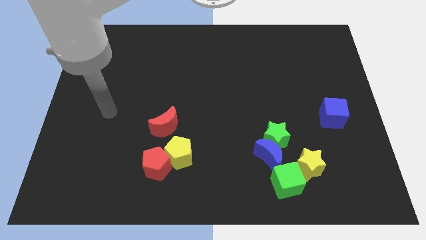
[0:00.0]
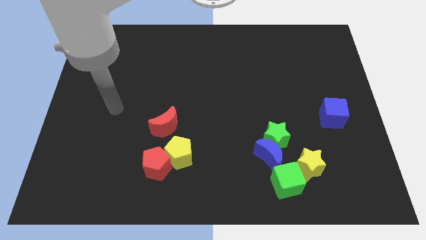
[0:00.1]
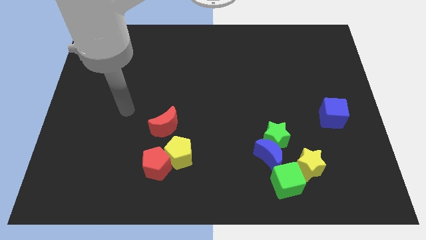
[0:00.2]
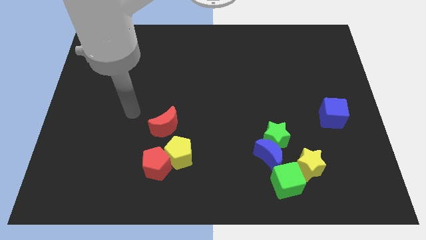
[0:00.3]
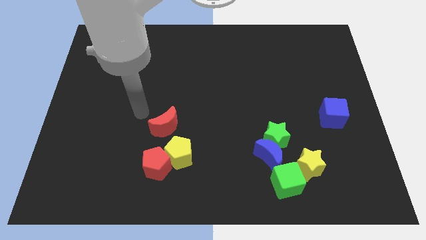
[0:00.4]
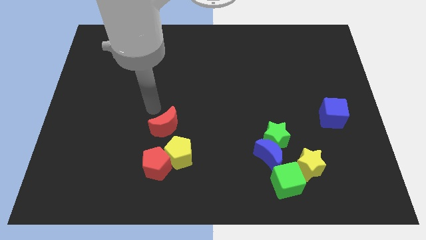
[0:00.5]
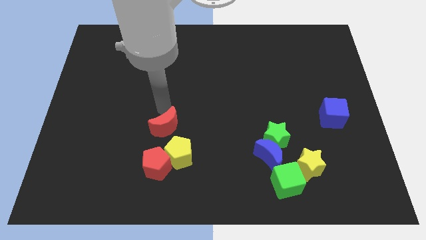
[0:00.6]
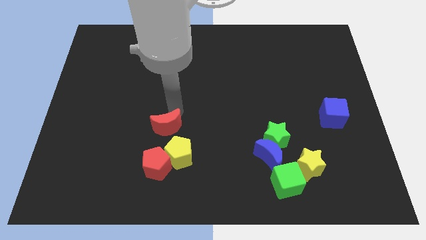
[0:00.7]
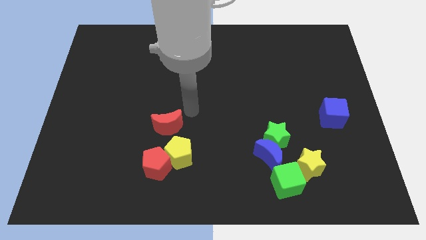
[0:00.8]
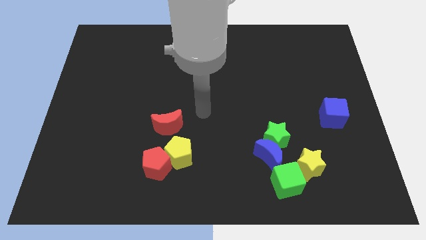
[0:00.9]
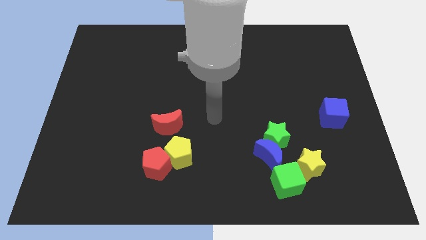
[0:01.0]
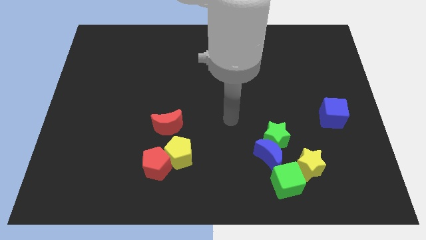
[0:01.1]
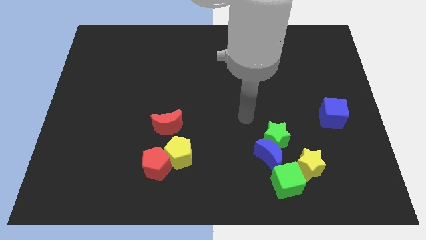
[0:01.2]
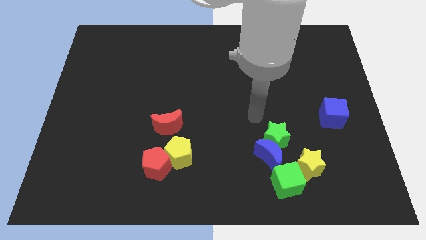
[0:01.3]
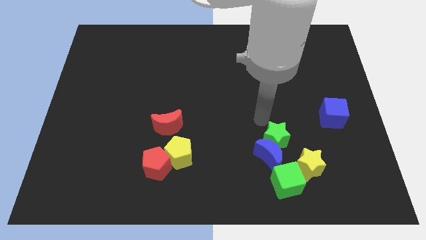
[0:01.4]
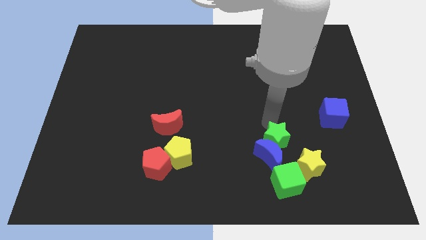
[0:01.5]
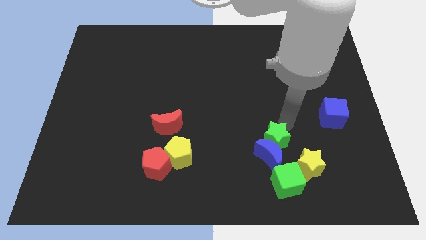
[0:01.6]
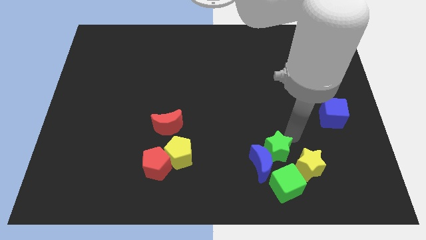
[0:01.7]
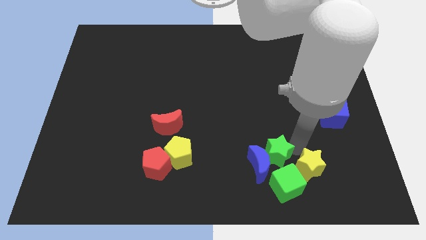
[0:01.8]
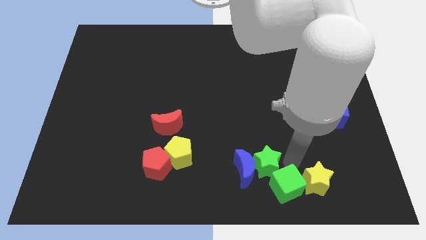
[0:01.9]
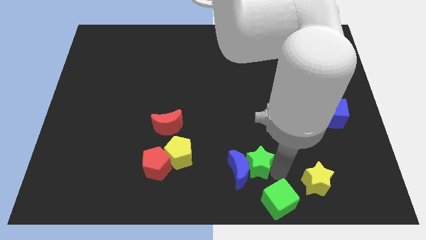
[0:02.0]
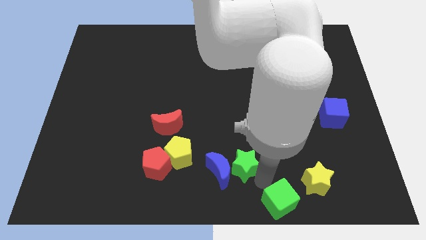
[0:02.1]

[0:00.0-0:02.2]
pull the blue moon apart from the clump

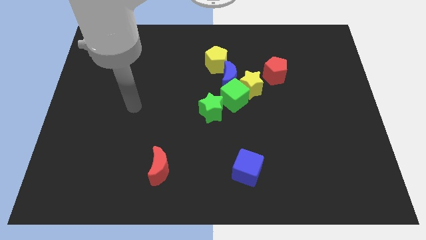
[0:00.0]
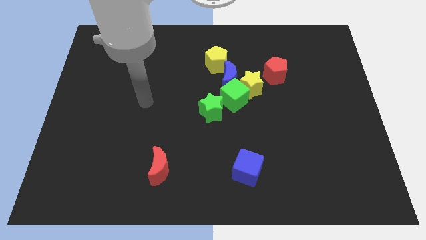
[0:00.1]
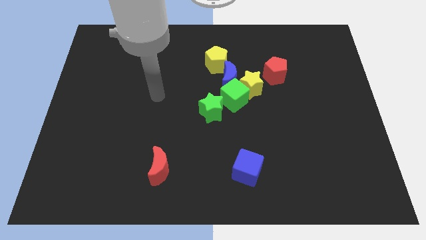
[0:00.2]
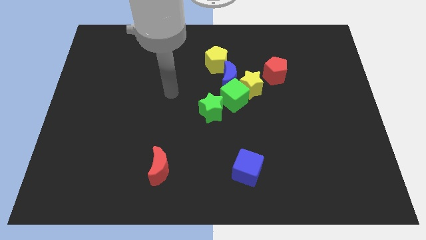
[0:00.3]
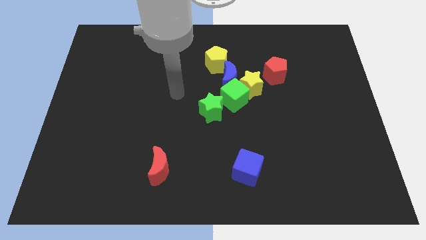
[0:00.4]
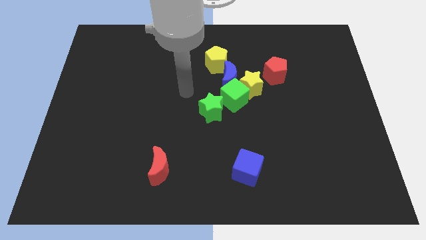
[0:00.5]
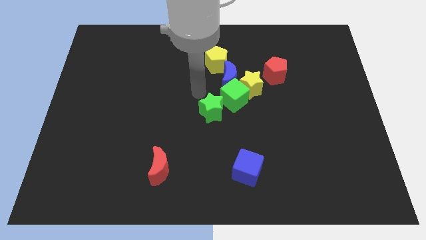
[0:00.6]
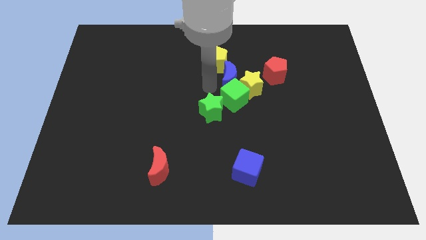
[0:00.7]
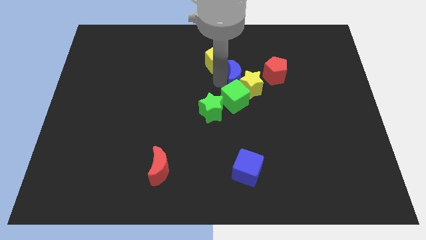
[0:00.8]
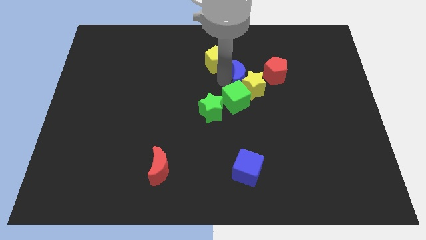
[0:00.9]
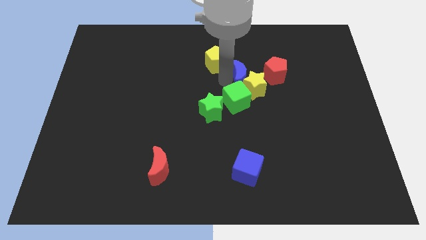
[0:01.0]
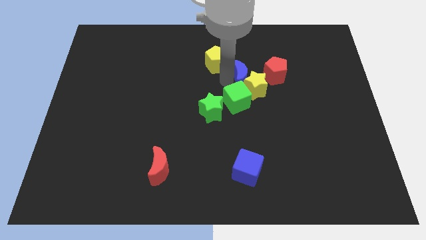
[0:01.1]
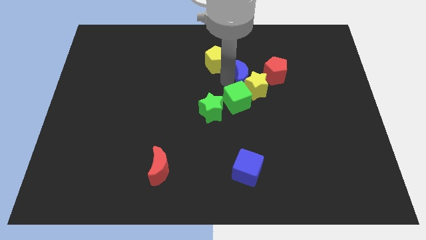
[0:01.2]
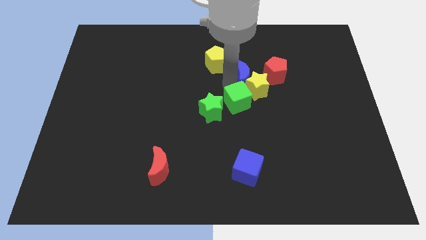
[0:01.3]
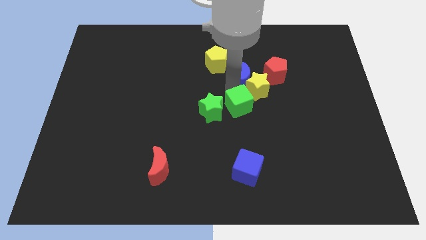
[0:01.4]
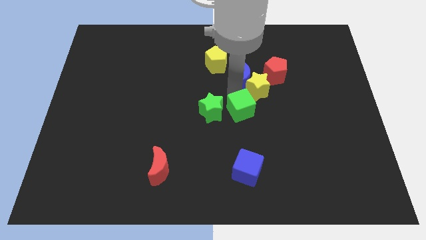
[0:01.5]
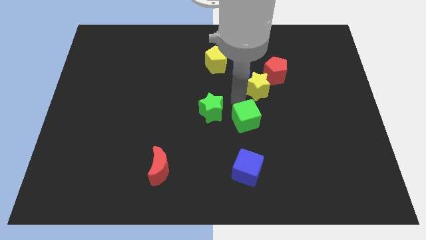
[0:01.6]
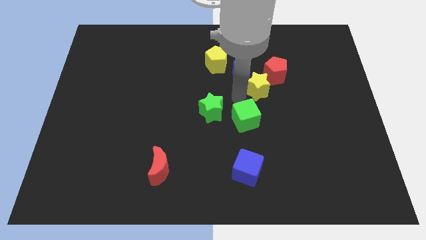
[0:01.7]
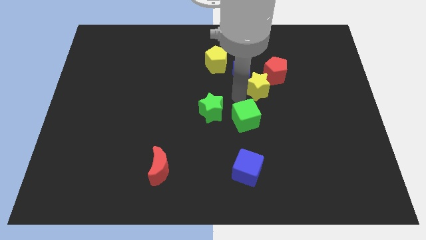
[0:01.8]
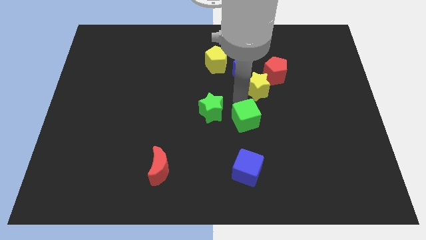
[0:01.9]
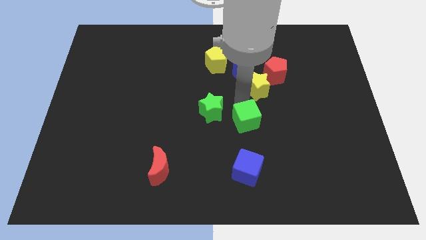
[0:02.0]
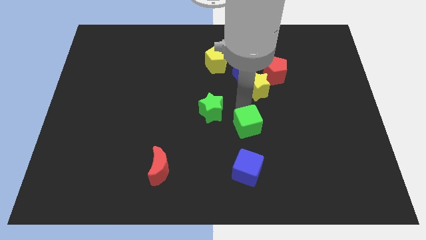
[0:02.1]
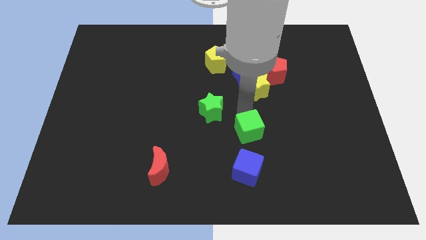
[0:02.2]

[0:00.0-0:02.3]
pull the green cube apart from the yellow star, blue moon, and green star

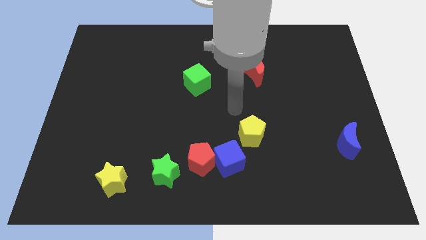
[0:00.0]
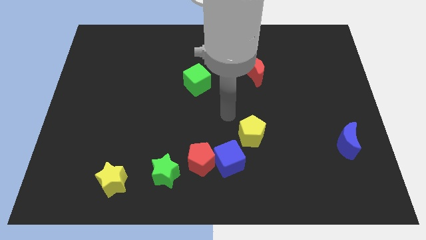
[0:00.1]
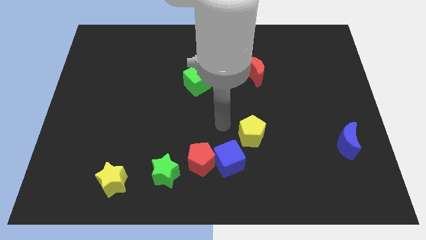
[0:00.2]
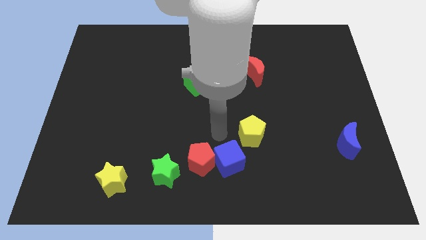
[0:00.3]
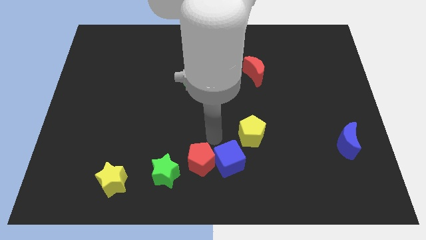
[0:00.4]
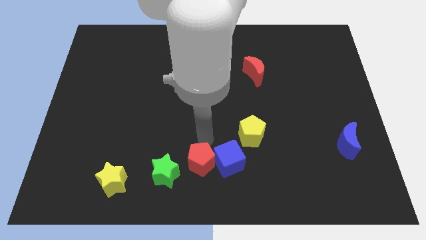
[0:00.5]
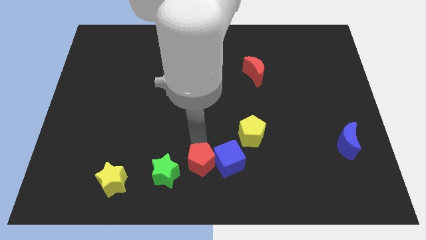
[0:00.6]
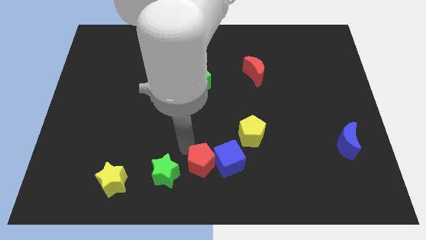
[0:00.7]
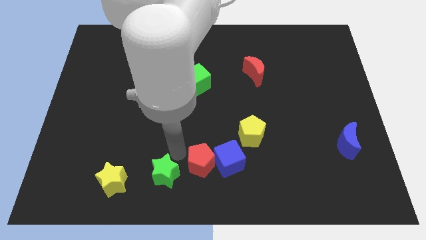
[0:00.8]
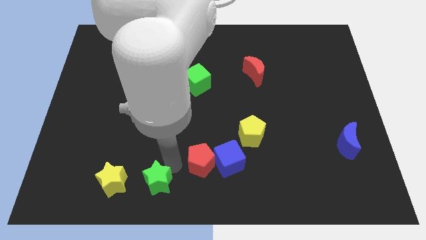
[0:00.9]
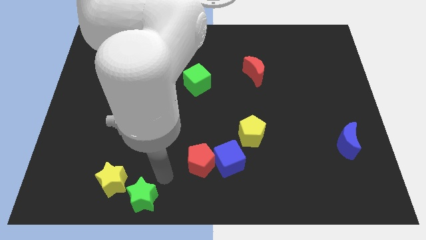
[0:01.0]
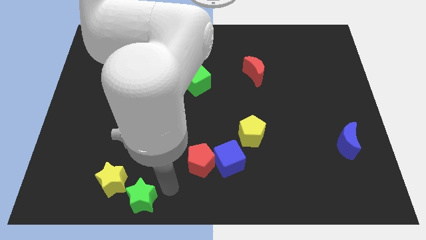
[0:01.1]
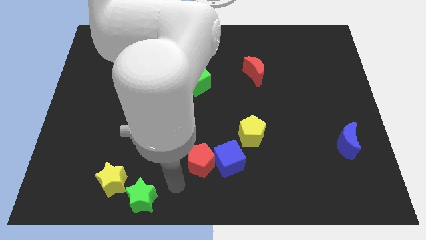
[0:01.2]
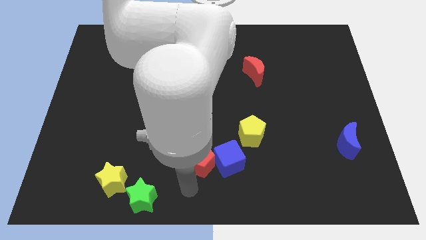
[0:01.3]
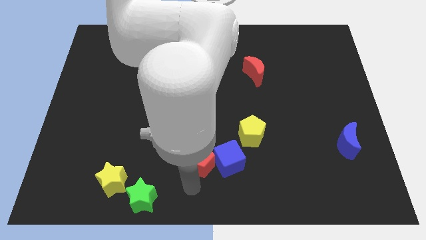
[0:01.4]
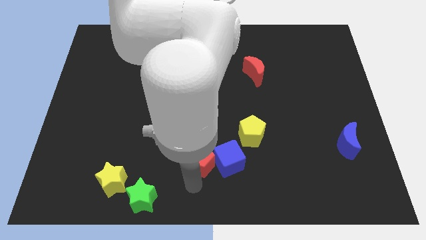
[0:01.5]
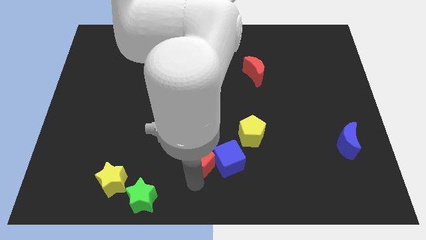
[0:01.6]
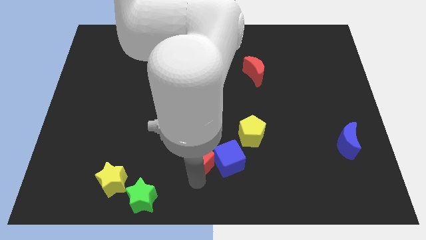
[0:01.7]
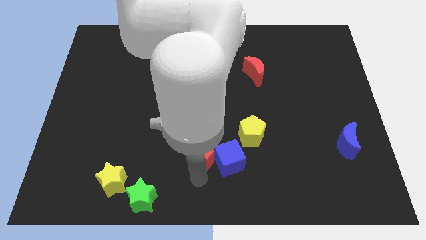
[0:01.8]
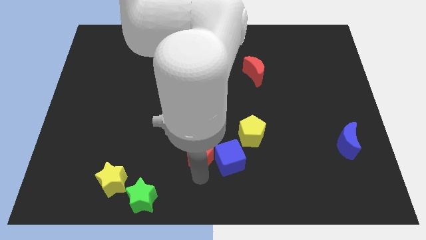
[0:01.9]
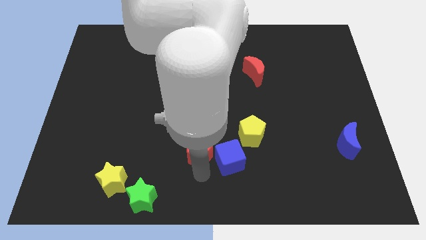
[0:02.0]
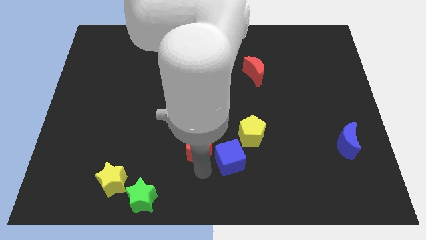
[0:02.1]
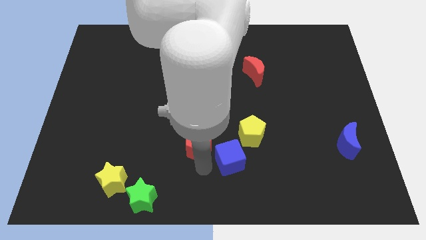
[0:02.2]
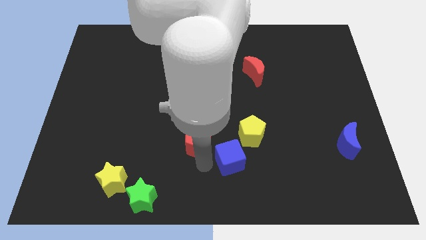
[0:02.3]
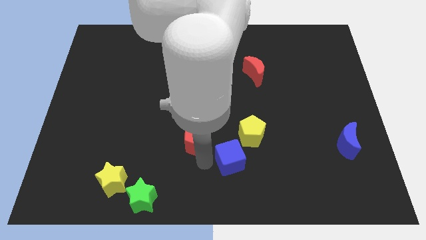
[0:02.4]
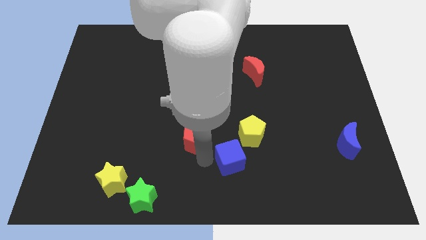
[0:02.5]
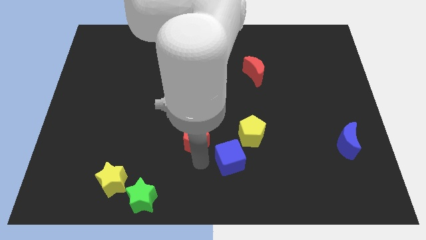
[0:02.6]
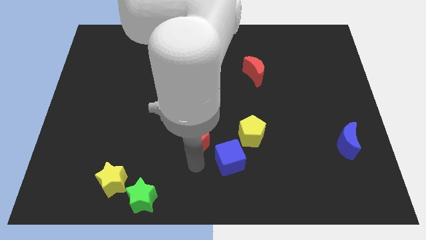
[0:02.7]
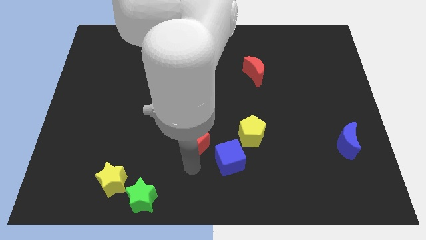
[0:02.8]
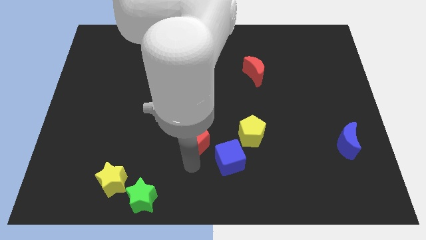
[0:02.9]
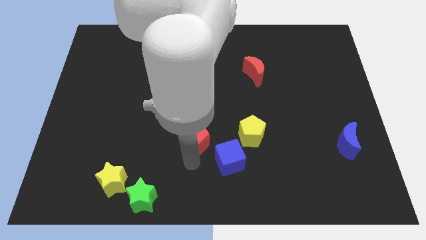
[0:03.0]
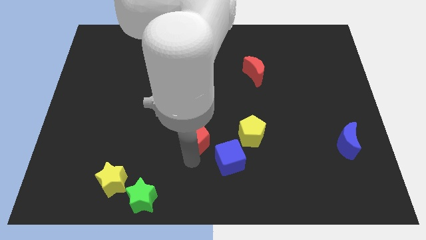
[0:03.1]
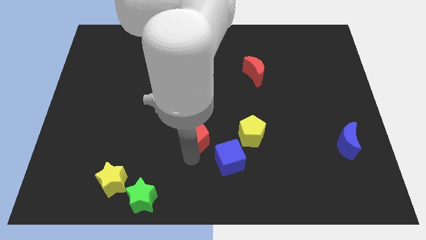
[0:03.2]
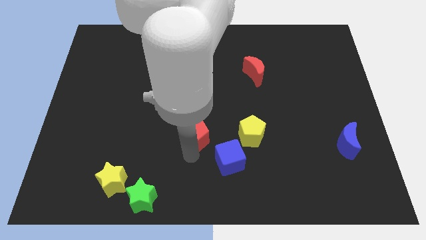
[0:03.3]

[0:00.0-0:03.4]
move the red pentagon away from the blue cube and green star

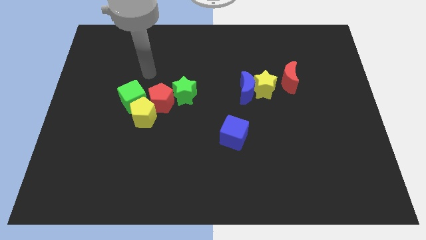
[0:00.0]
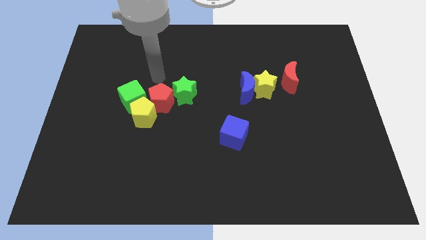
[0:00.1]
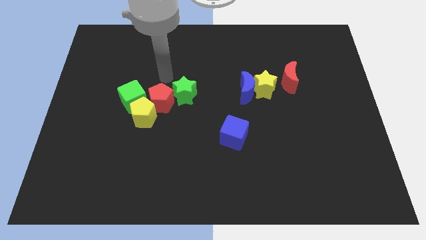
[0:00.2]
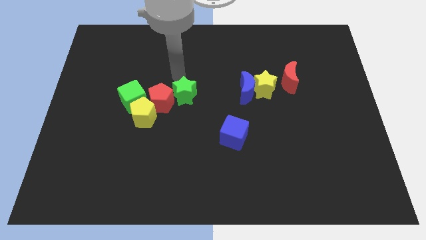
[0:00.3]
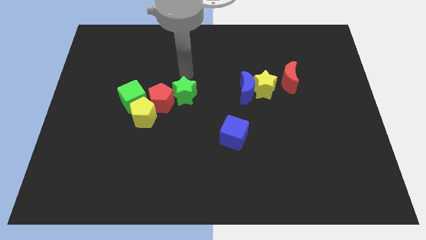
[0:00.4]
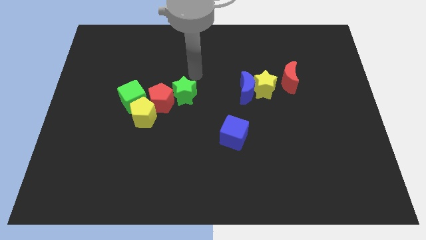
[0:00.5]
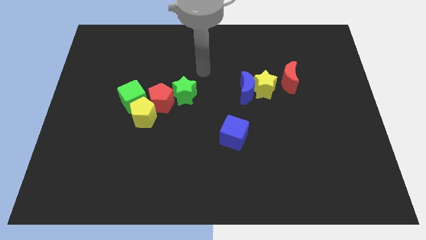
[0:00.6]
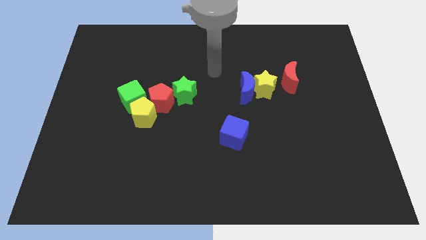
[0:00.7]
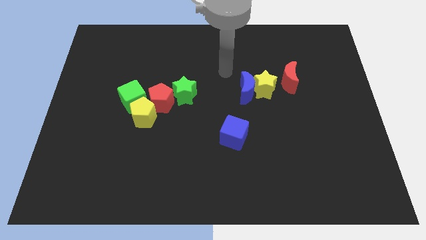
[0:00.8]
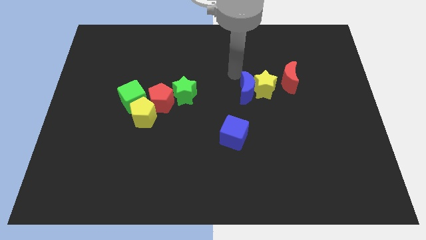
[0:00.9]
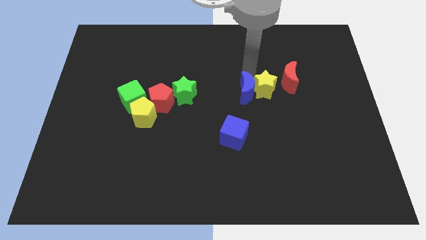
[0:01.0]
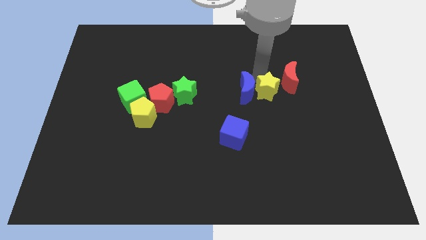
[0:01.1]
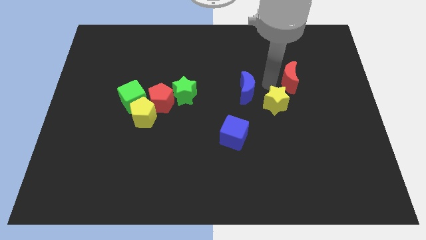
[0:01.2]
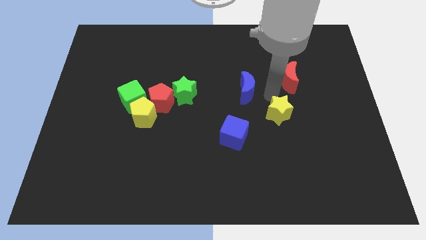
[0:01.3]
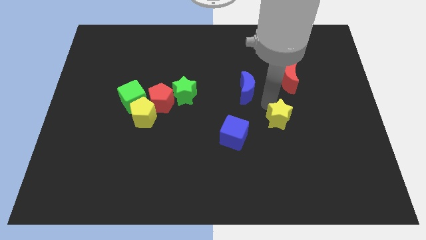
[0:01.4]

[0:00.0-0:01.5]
move the blue moon away from the yellow star
